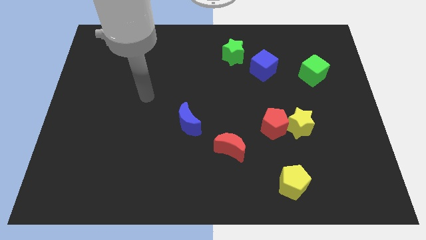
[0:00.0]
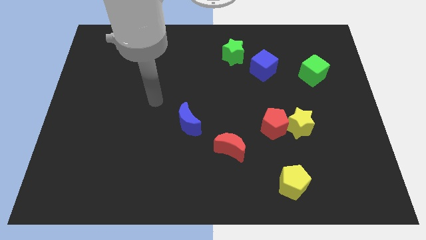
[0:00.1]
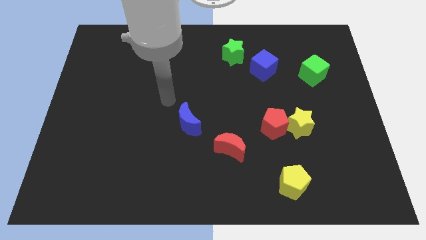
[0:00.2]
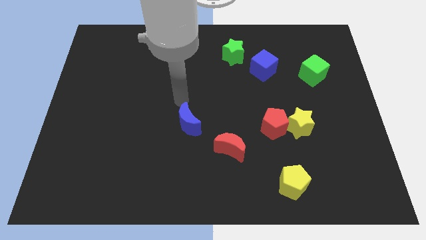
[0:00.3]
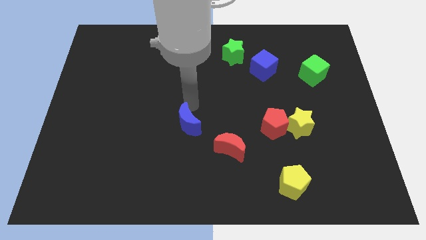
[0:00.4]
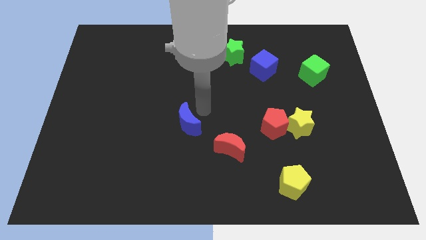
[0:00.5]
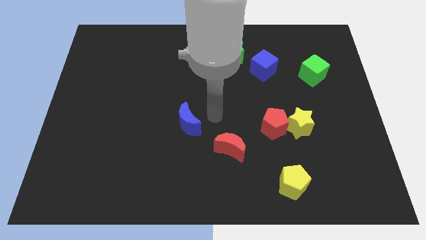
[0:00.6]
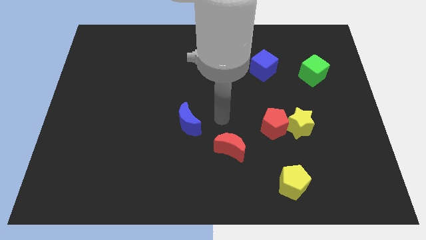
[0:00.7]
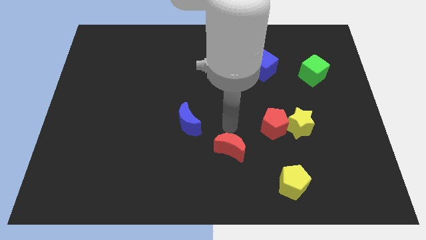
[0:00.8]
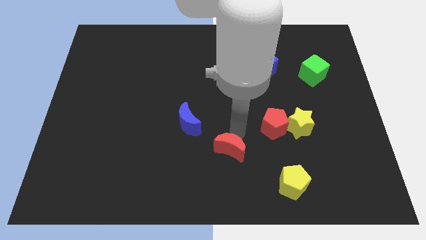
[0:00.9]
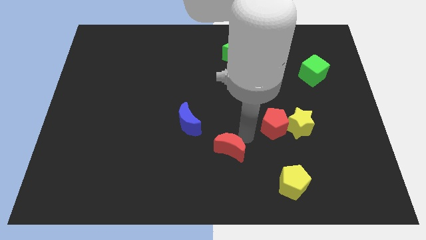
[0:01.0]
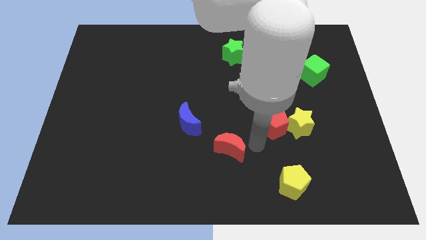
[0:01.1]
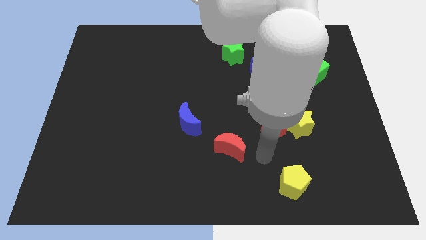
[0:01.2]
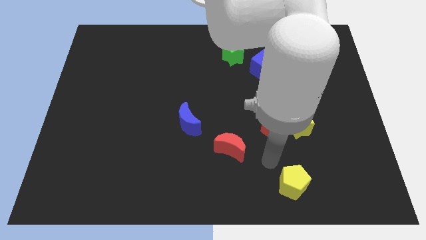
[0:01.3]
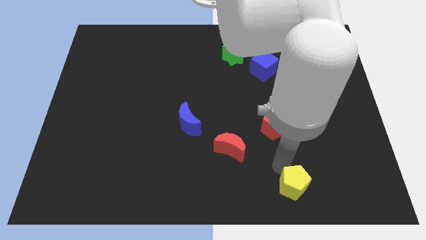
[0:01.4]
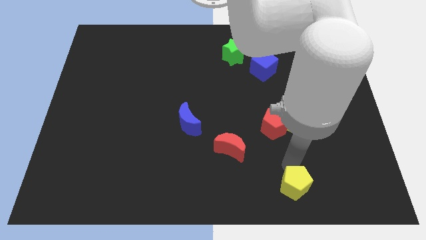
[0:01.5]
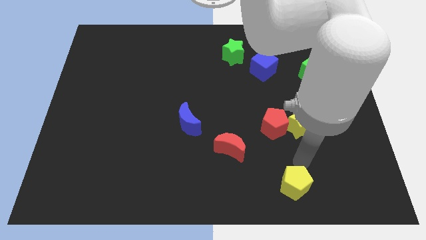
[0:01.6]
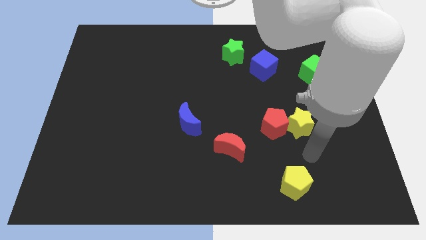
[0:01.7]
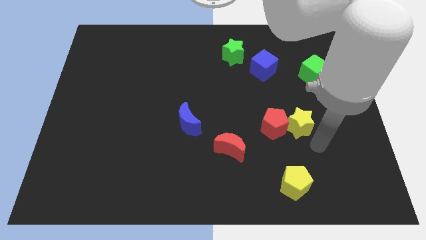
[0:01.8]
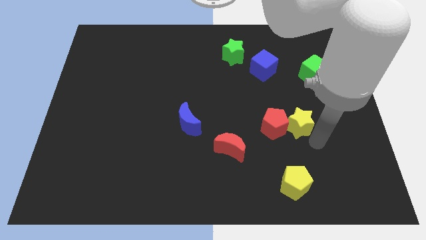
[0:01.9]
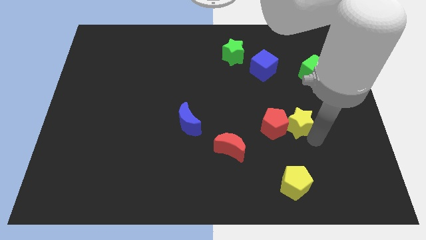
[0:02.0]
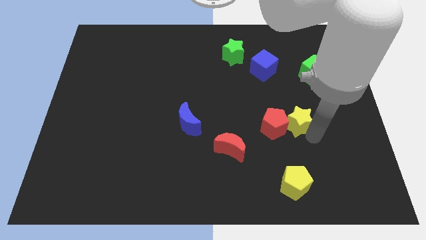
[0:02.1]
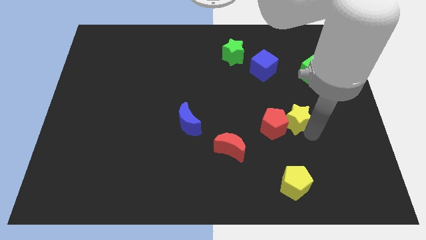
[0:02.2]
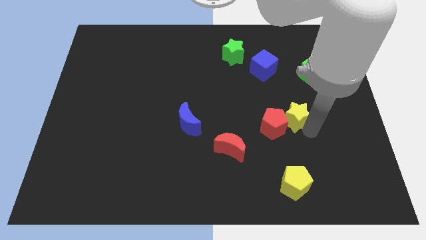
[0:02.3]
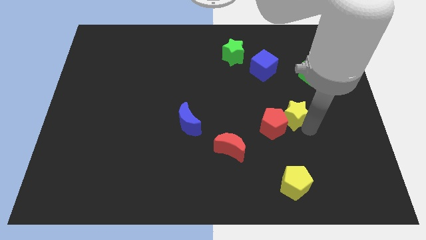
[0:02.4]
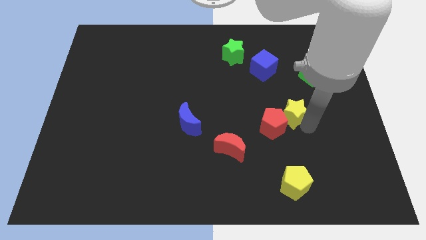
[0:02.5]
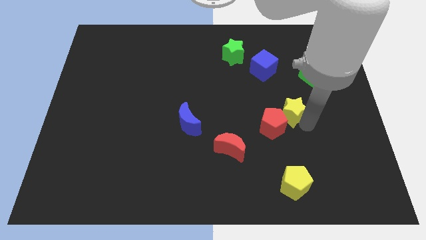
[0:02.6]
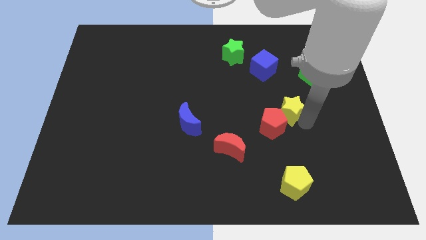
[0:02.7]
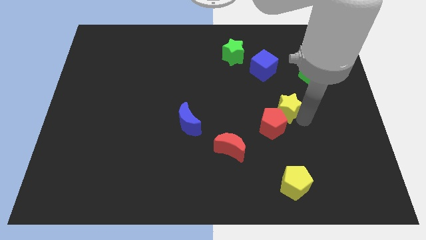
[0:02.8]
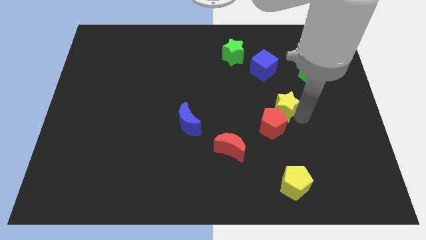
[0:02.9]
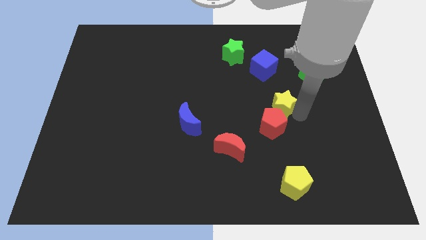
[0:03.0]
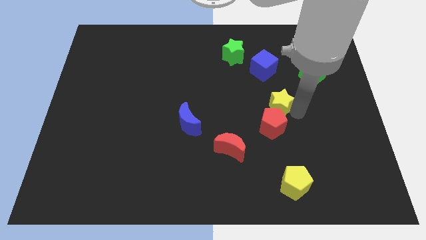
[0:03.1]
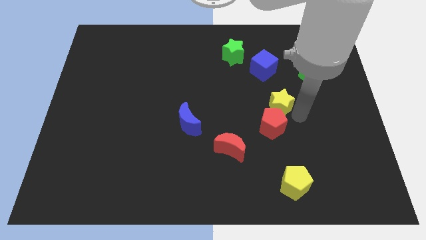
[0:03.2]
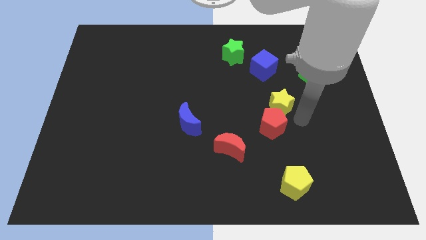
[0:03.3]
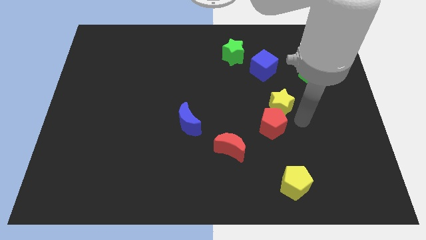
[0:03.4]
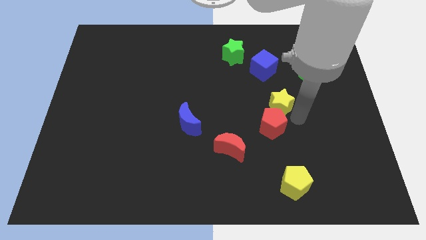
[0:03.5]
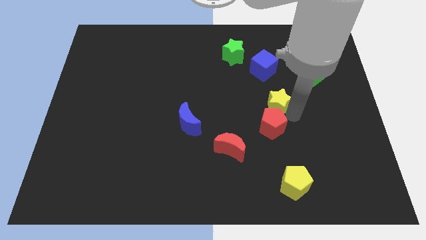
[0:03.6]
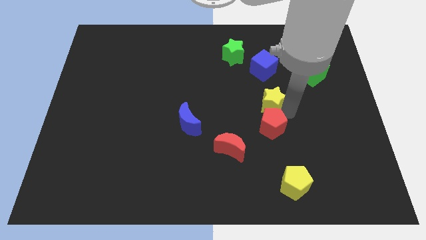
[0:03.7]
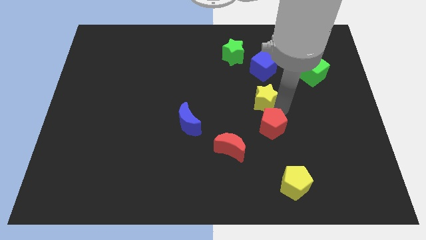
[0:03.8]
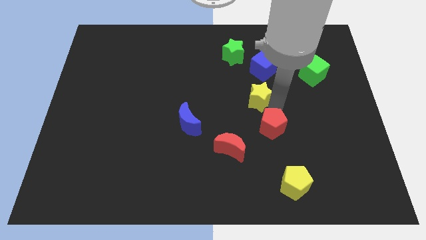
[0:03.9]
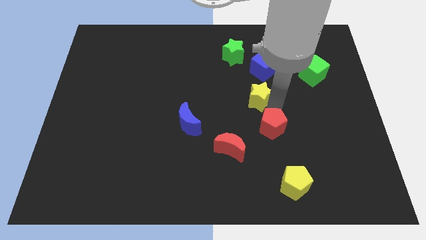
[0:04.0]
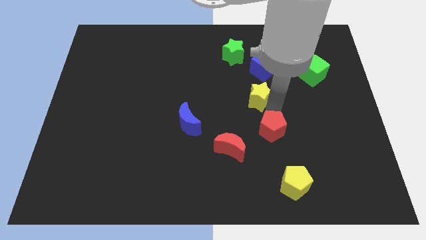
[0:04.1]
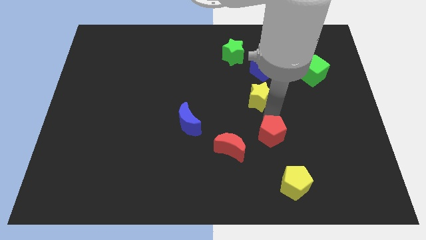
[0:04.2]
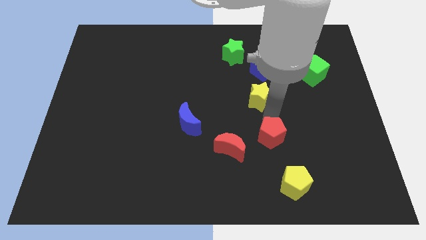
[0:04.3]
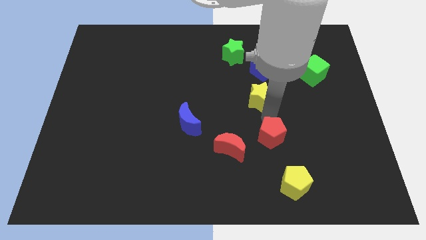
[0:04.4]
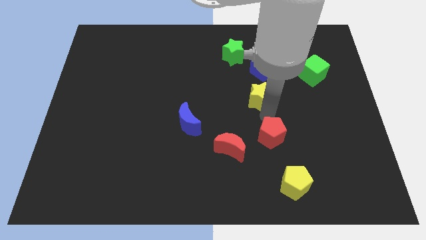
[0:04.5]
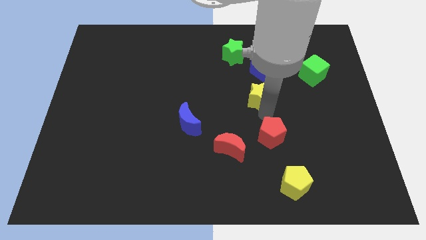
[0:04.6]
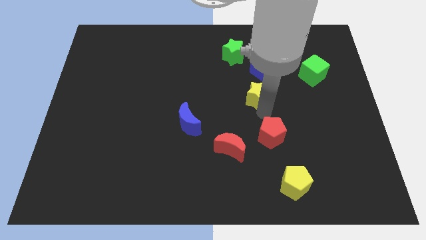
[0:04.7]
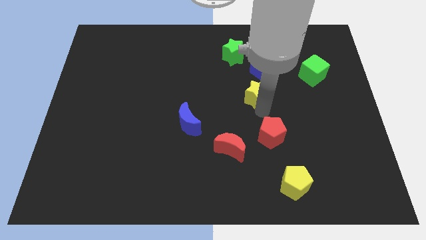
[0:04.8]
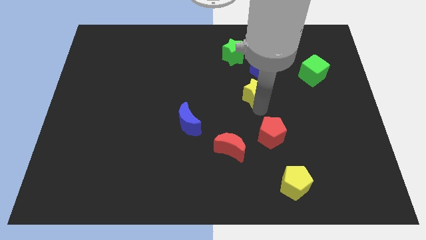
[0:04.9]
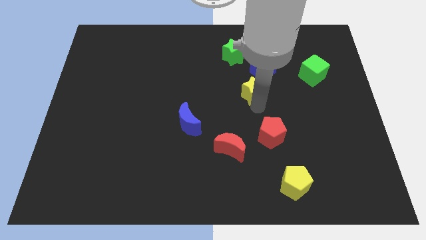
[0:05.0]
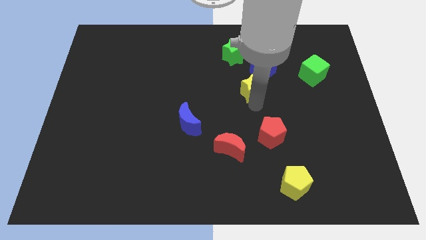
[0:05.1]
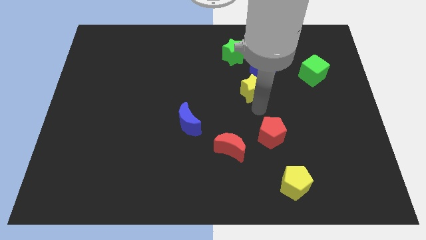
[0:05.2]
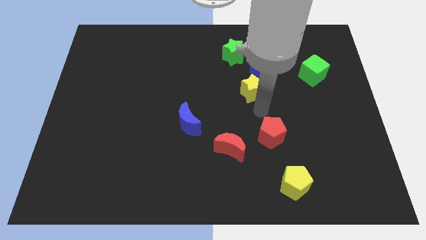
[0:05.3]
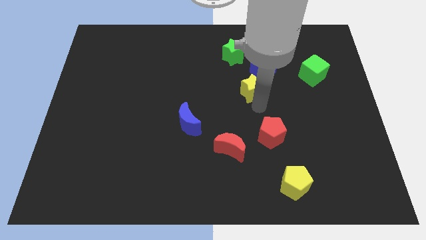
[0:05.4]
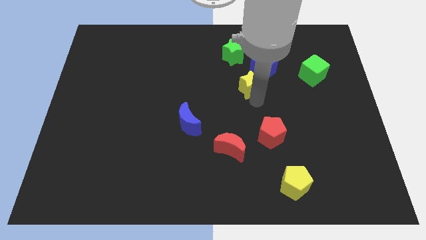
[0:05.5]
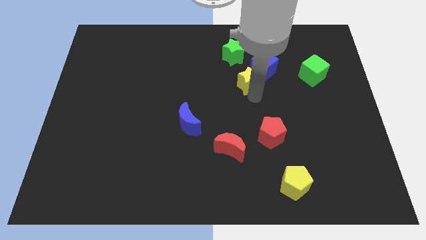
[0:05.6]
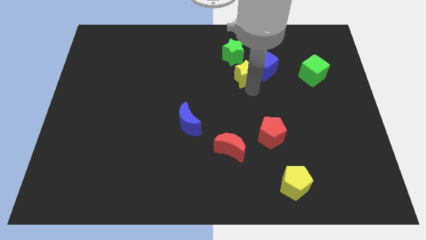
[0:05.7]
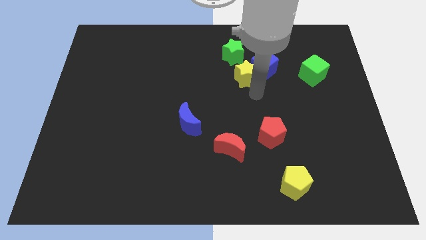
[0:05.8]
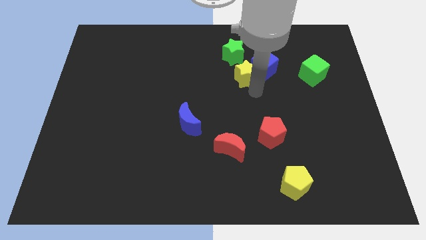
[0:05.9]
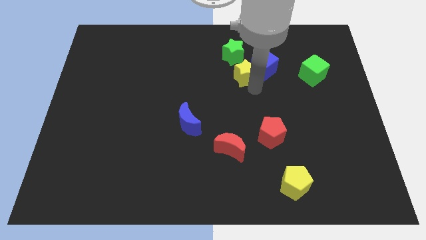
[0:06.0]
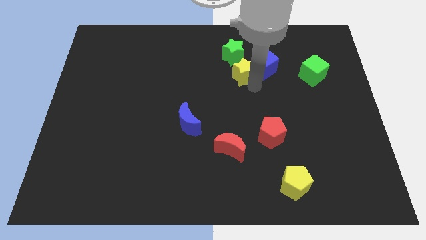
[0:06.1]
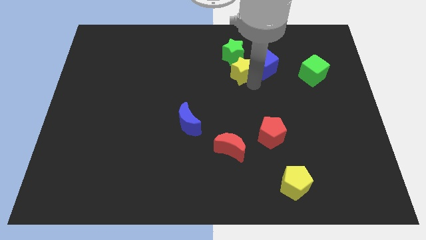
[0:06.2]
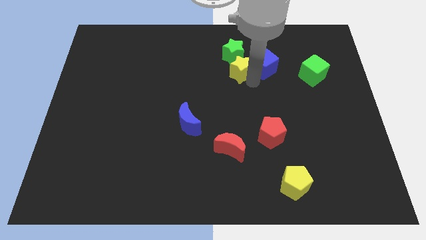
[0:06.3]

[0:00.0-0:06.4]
move the yellow star towards the green star

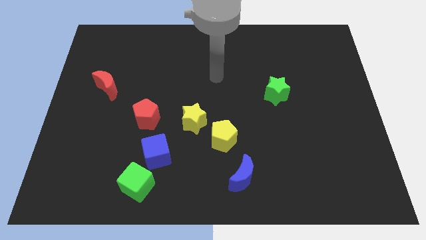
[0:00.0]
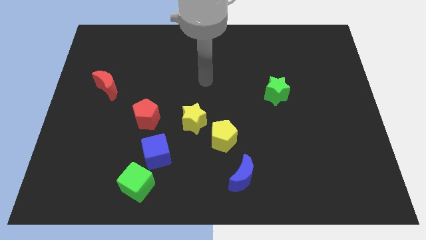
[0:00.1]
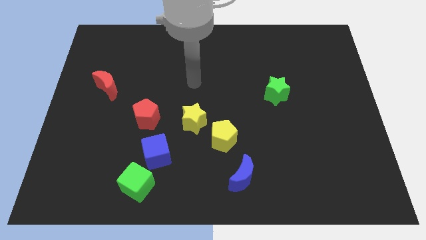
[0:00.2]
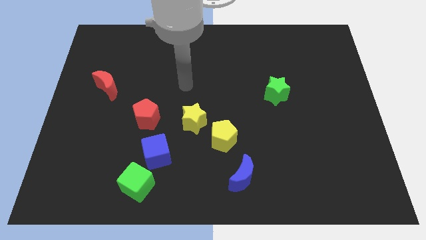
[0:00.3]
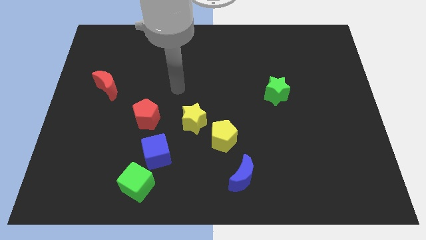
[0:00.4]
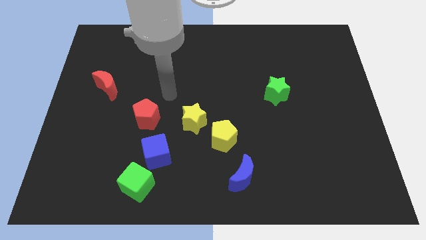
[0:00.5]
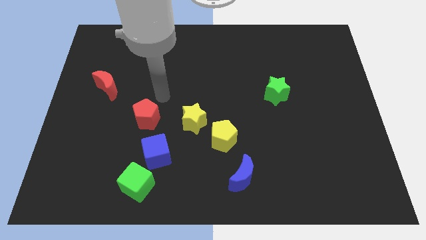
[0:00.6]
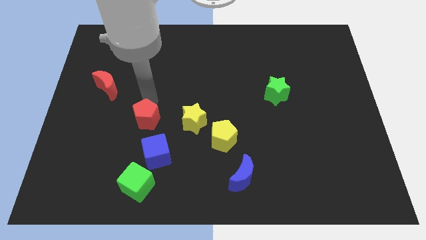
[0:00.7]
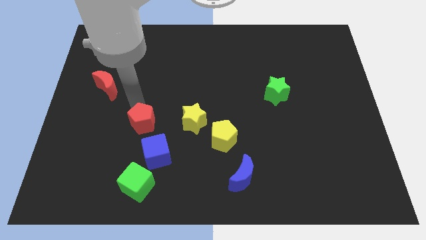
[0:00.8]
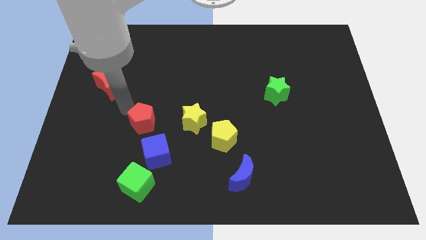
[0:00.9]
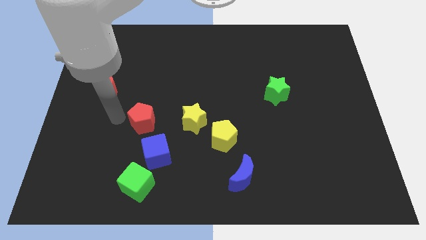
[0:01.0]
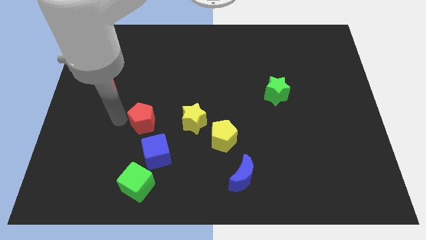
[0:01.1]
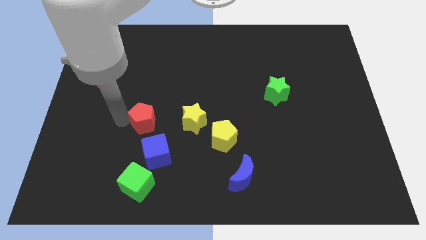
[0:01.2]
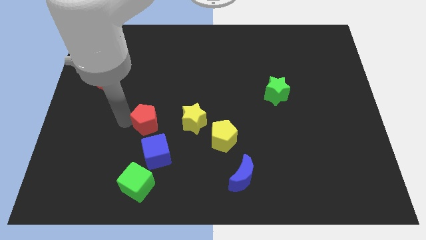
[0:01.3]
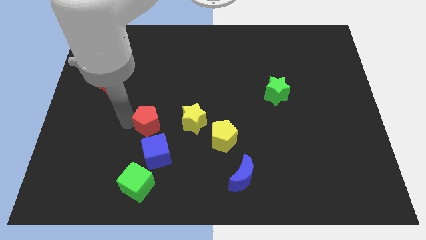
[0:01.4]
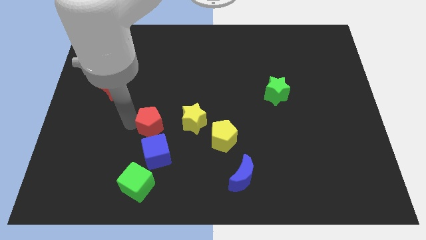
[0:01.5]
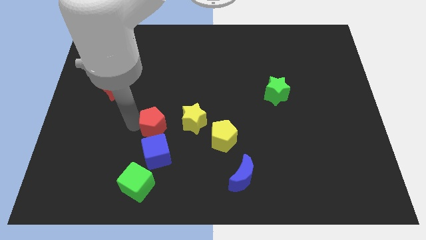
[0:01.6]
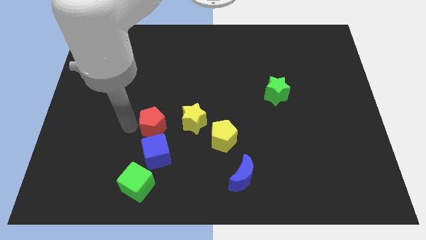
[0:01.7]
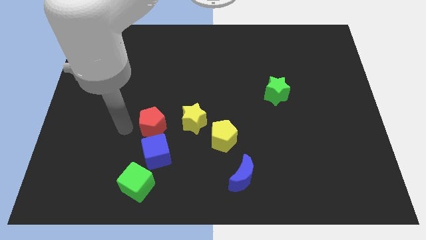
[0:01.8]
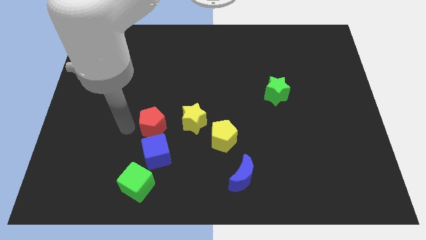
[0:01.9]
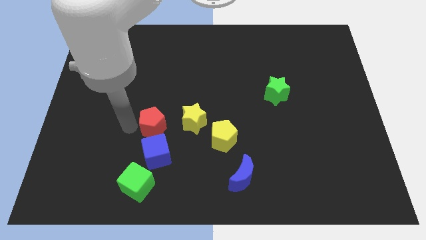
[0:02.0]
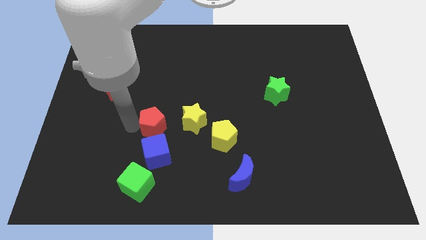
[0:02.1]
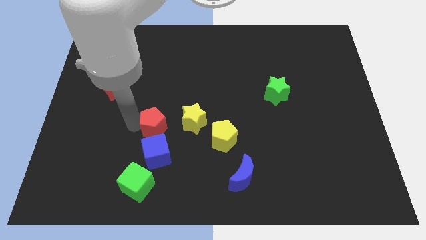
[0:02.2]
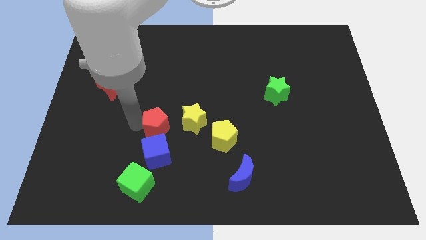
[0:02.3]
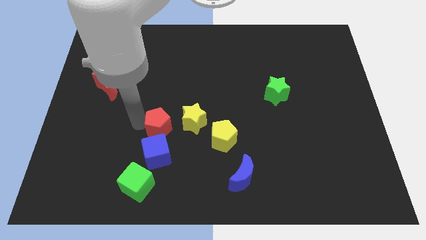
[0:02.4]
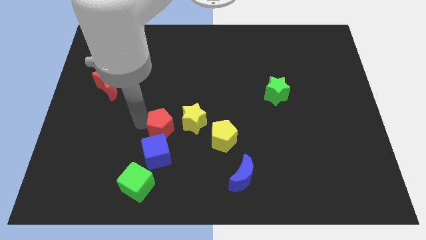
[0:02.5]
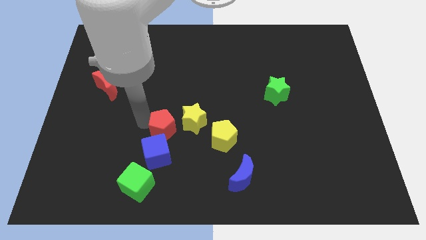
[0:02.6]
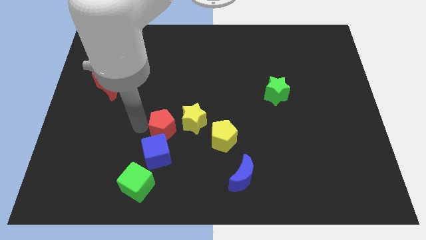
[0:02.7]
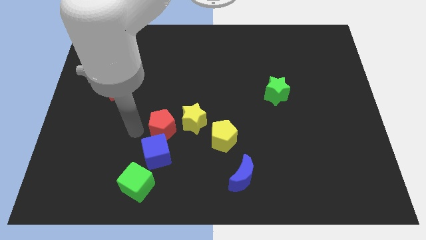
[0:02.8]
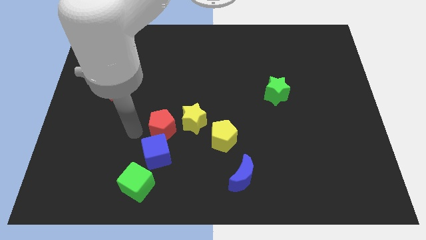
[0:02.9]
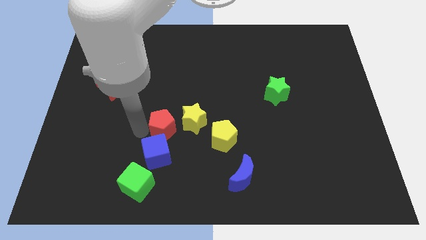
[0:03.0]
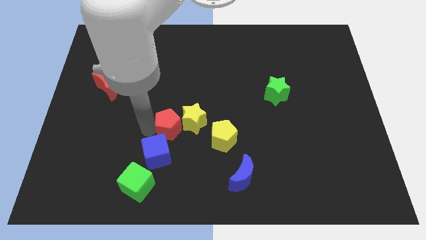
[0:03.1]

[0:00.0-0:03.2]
slide the red pentagon towards the yellow star
